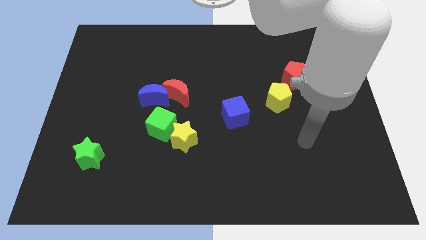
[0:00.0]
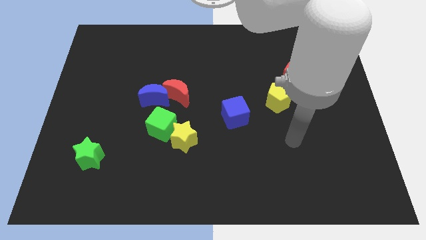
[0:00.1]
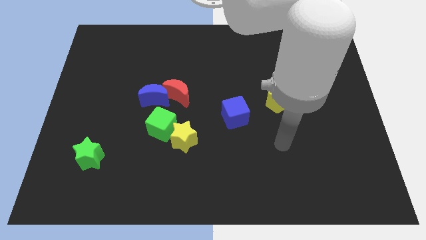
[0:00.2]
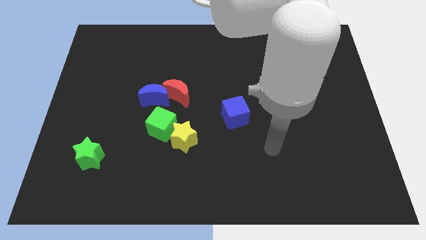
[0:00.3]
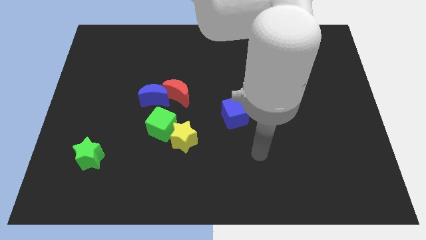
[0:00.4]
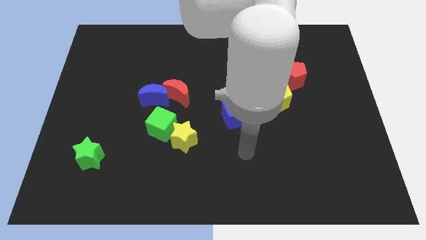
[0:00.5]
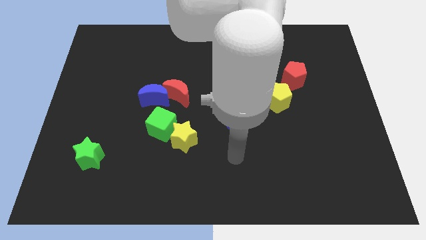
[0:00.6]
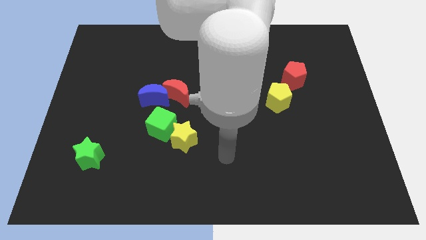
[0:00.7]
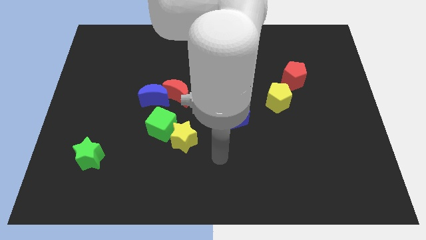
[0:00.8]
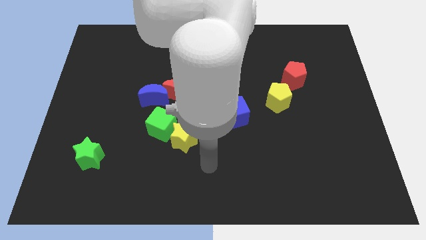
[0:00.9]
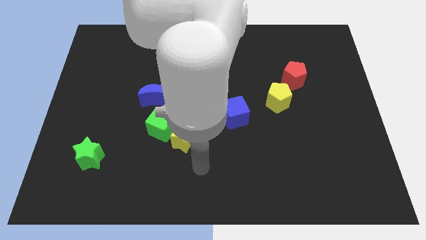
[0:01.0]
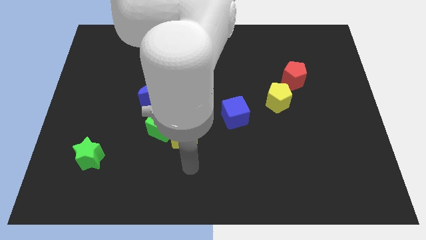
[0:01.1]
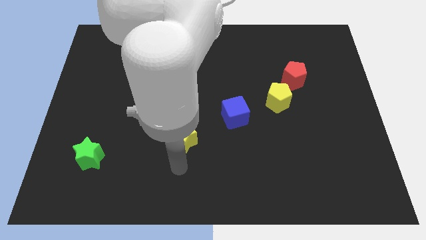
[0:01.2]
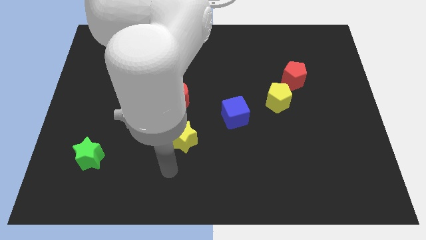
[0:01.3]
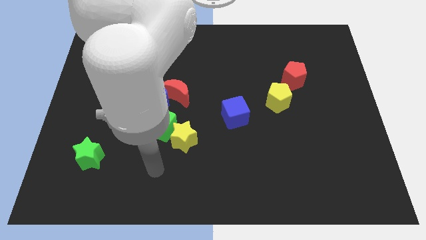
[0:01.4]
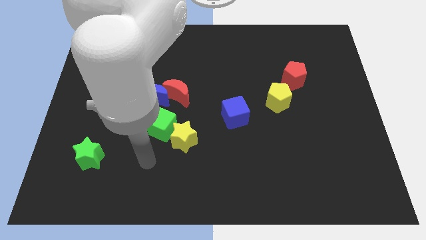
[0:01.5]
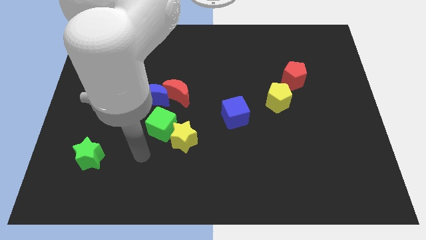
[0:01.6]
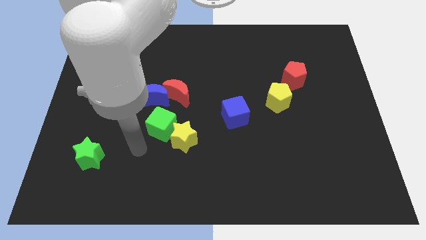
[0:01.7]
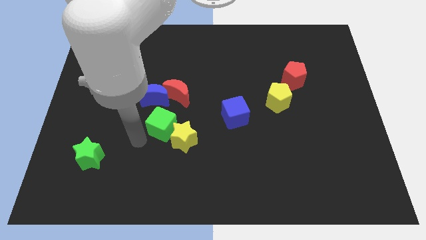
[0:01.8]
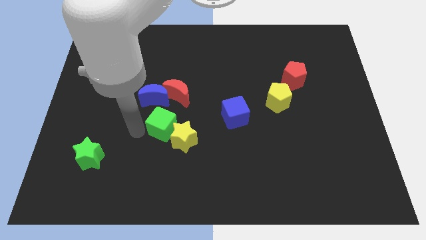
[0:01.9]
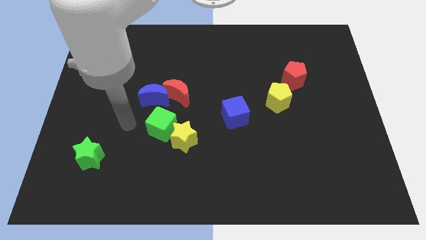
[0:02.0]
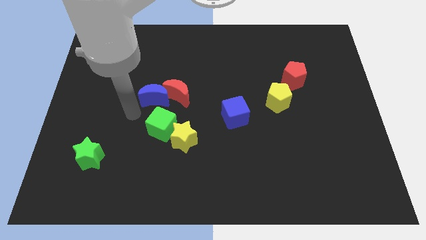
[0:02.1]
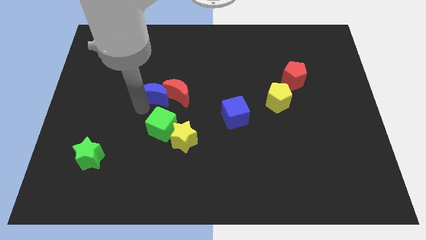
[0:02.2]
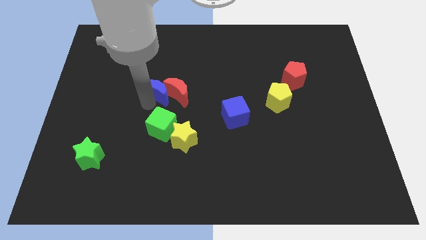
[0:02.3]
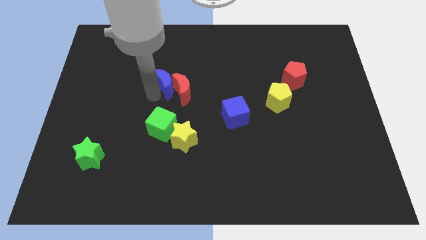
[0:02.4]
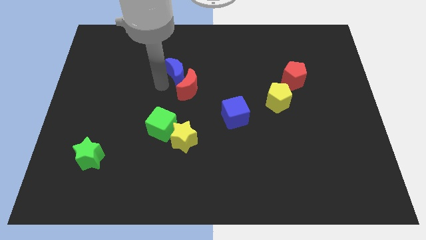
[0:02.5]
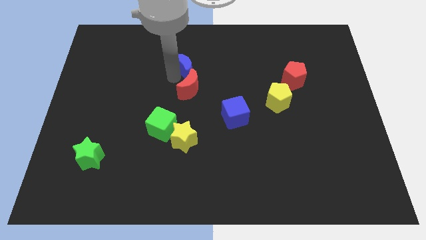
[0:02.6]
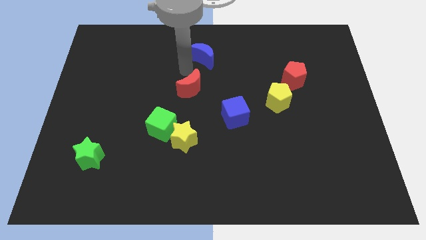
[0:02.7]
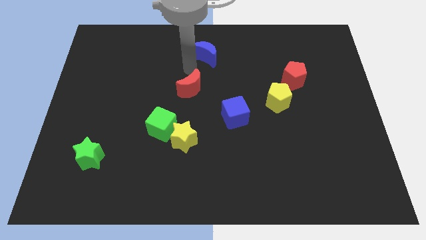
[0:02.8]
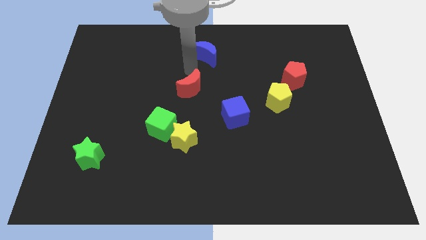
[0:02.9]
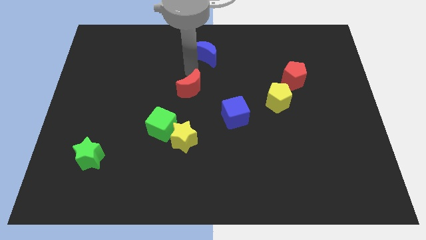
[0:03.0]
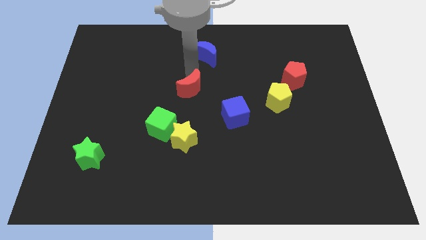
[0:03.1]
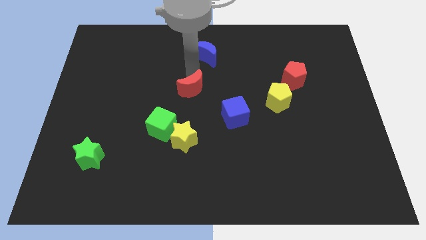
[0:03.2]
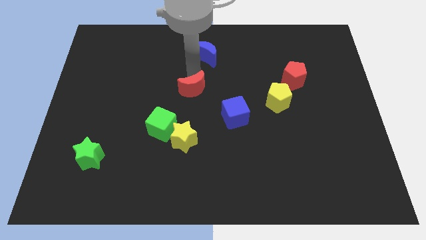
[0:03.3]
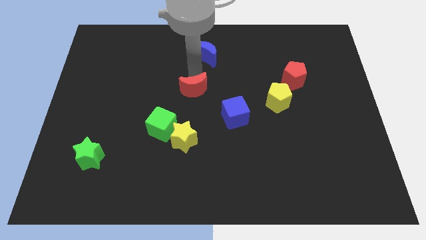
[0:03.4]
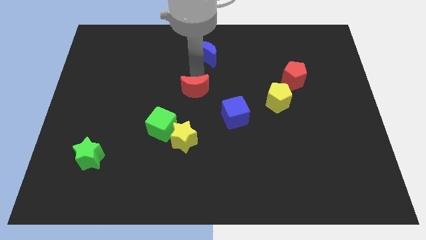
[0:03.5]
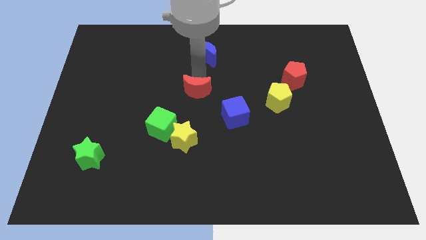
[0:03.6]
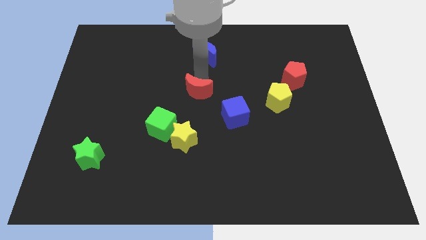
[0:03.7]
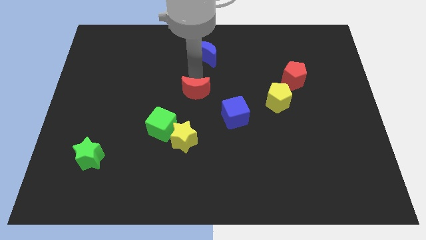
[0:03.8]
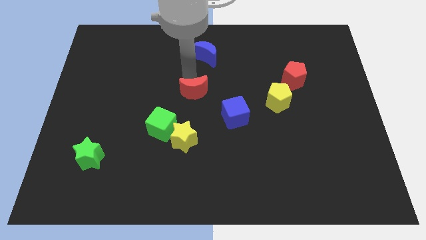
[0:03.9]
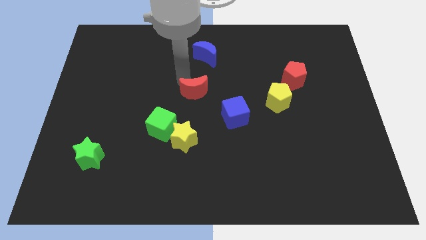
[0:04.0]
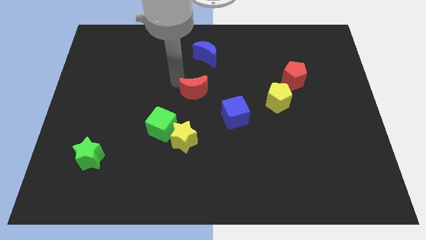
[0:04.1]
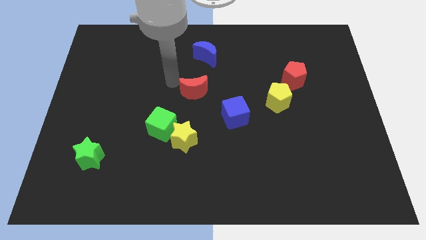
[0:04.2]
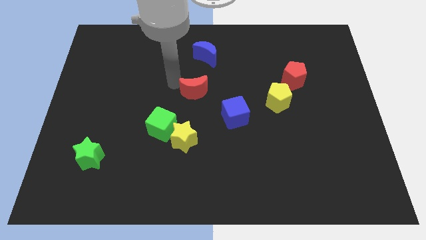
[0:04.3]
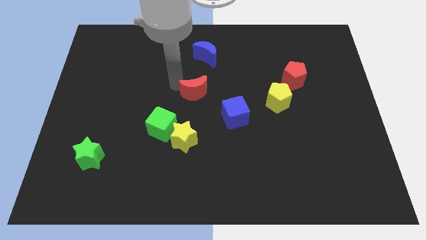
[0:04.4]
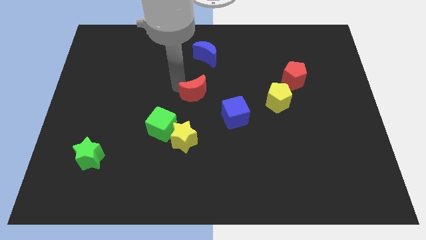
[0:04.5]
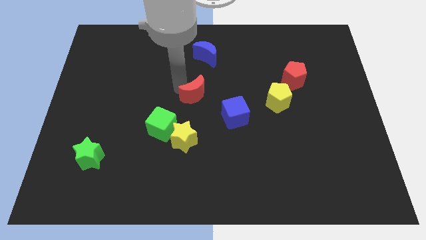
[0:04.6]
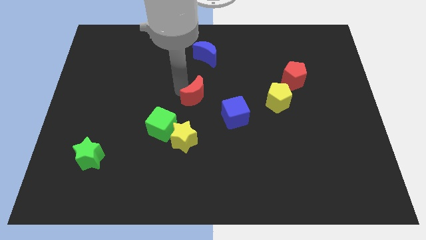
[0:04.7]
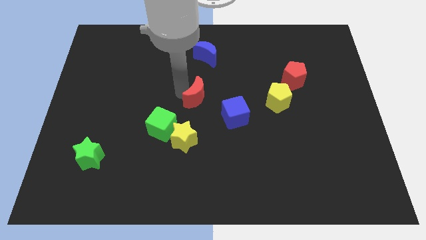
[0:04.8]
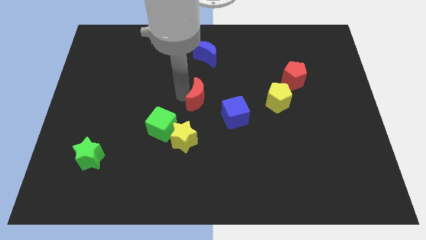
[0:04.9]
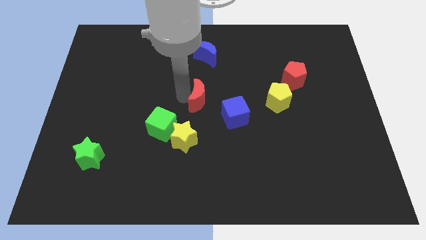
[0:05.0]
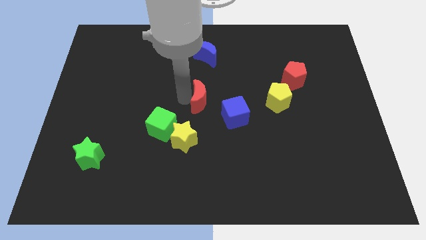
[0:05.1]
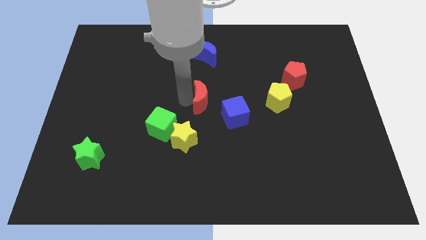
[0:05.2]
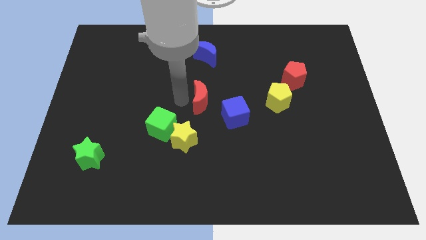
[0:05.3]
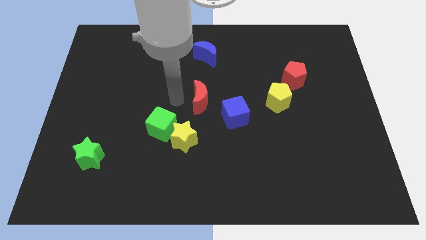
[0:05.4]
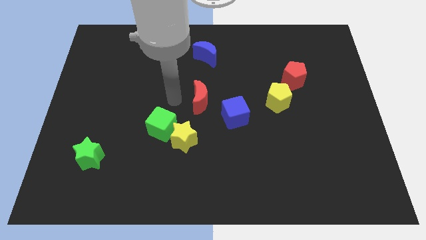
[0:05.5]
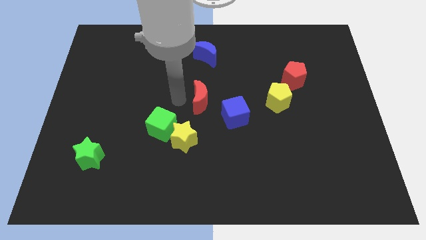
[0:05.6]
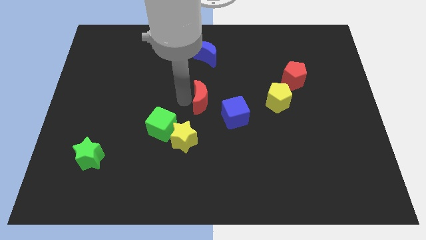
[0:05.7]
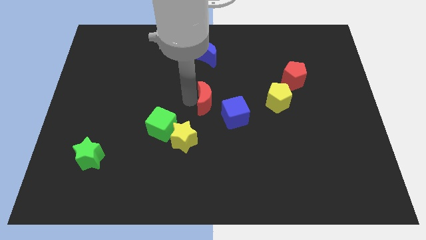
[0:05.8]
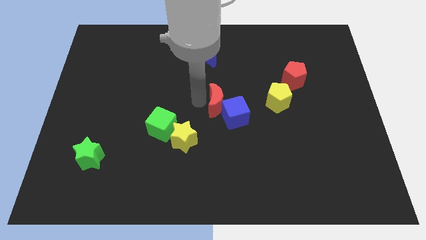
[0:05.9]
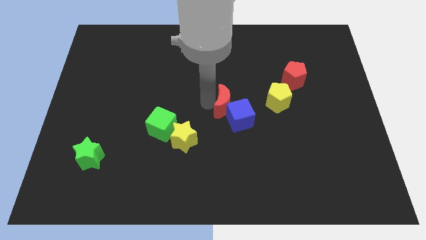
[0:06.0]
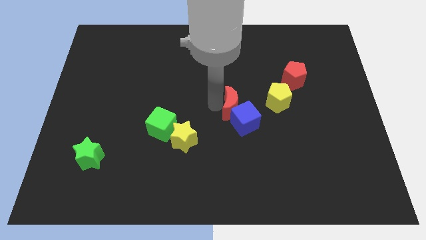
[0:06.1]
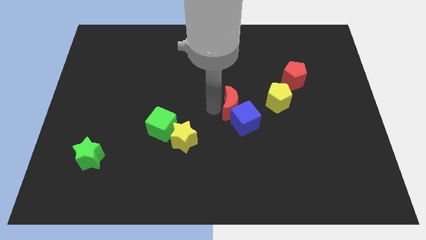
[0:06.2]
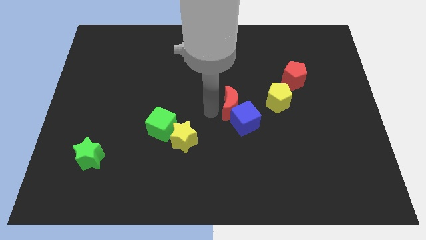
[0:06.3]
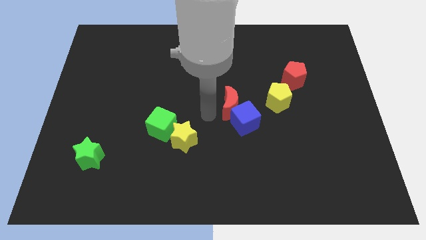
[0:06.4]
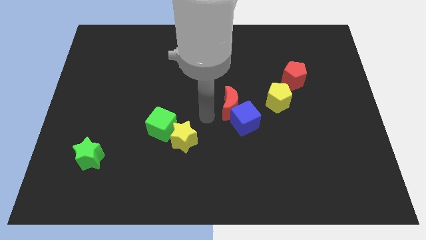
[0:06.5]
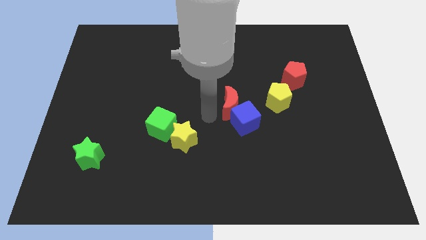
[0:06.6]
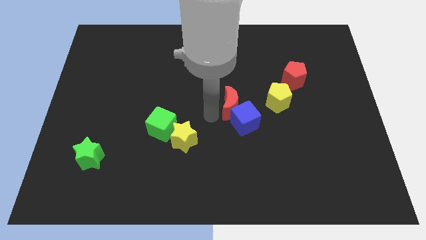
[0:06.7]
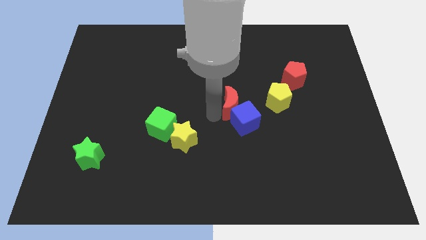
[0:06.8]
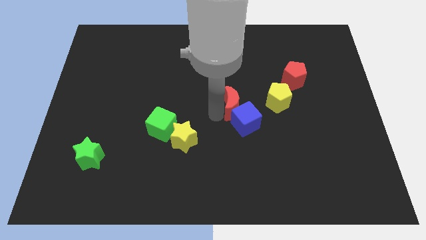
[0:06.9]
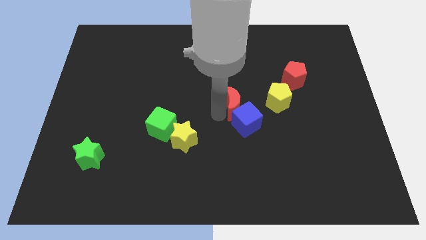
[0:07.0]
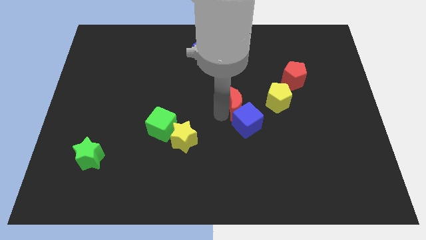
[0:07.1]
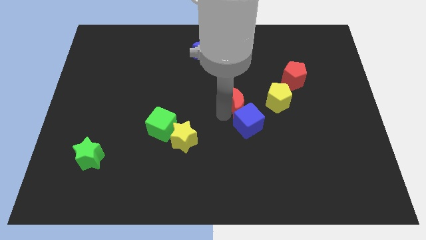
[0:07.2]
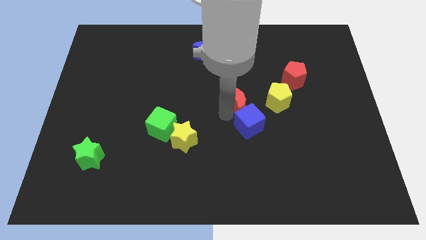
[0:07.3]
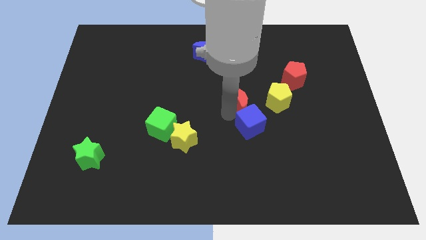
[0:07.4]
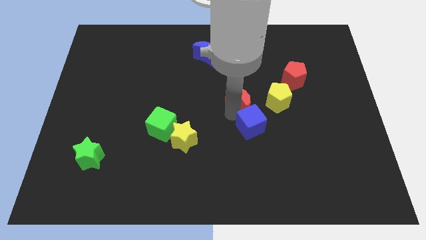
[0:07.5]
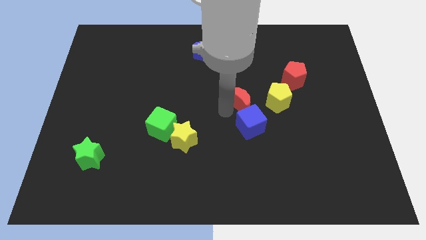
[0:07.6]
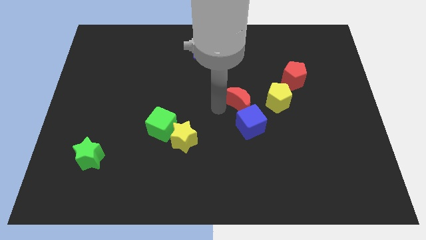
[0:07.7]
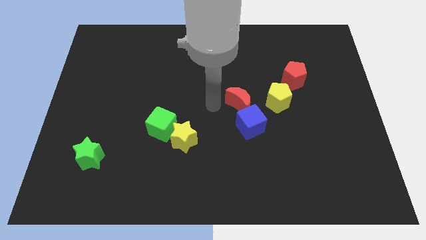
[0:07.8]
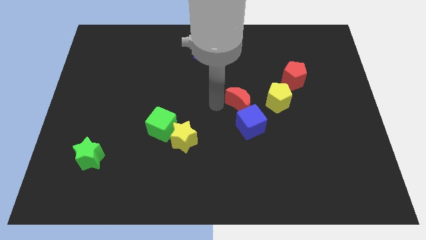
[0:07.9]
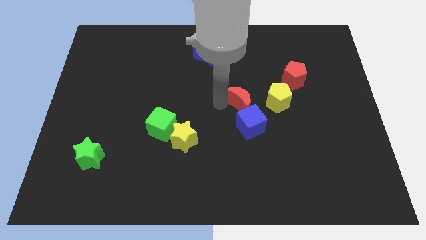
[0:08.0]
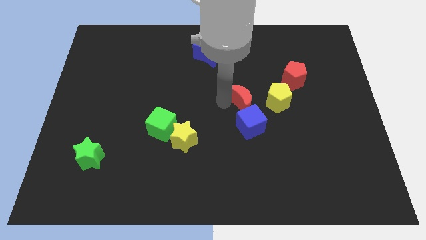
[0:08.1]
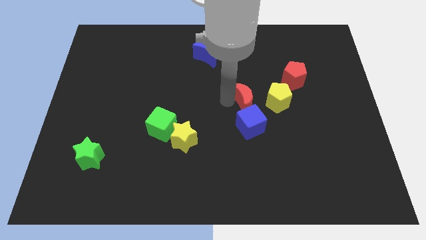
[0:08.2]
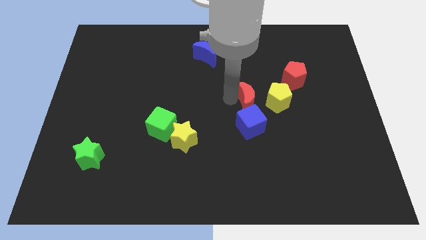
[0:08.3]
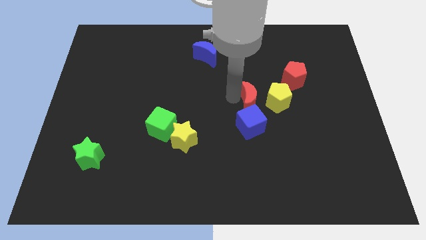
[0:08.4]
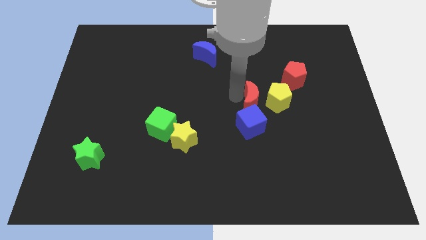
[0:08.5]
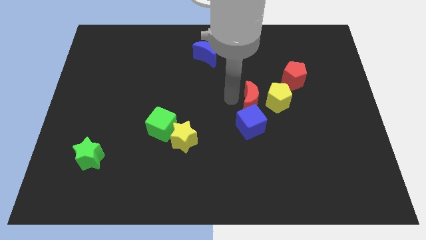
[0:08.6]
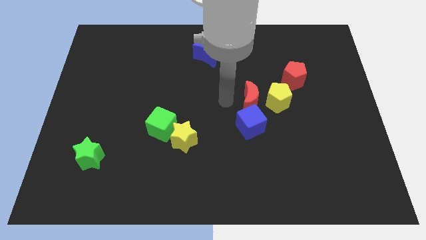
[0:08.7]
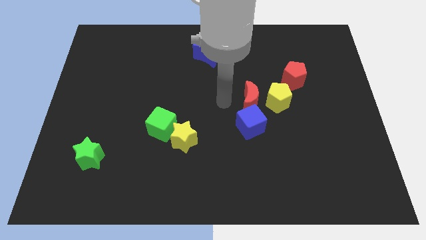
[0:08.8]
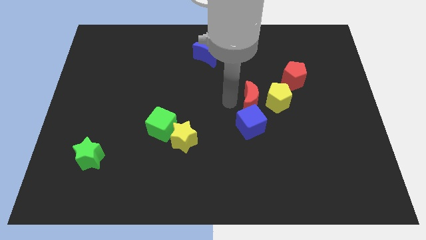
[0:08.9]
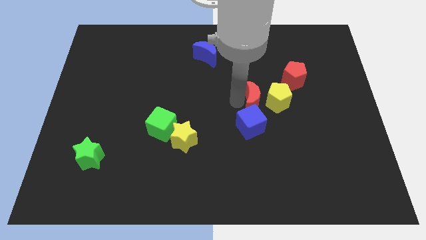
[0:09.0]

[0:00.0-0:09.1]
push the red moon next to the yellow pentagon
